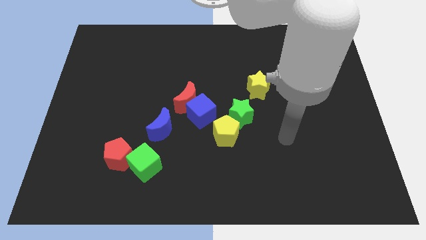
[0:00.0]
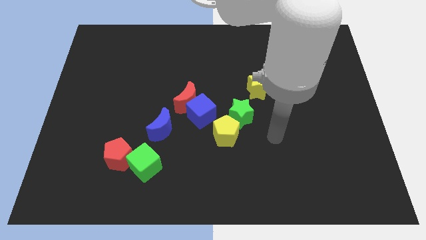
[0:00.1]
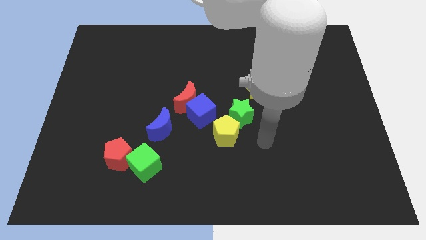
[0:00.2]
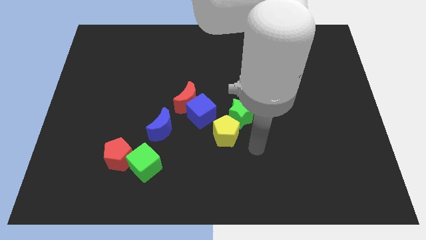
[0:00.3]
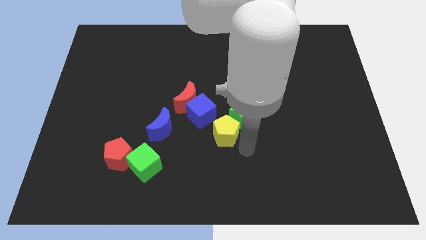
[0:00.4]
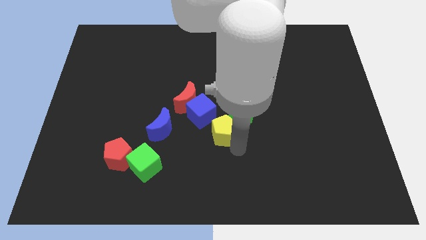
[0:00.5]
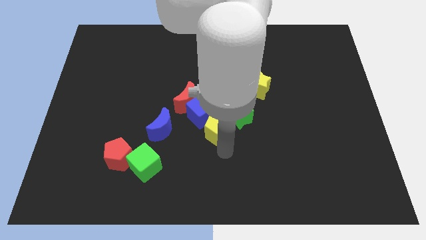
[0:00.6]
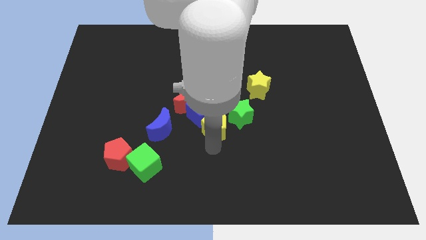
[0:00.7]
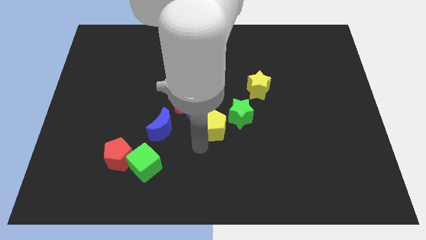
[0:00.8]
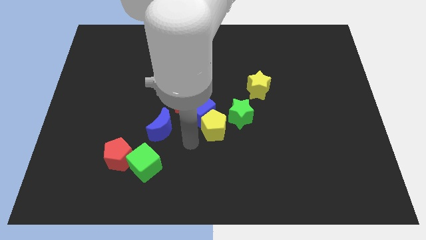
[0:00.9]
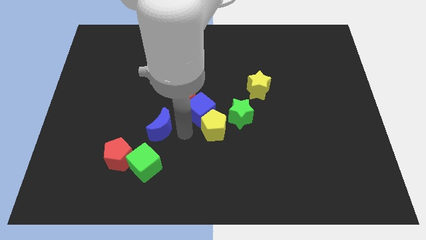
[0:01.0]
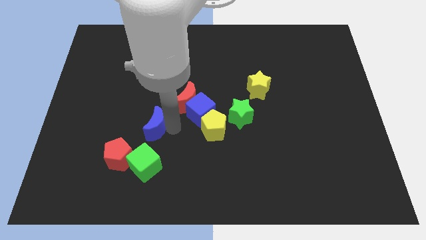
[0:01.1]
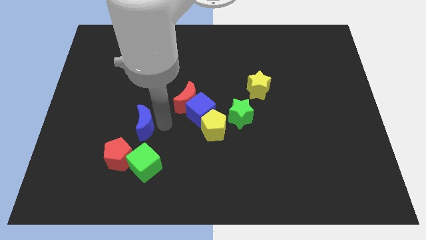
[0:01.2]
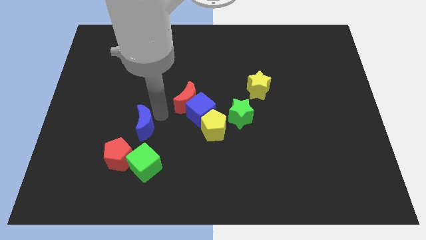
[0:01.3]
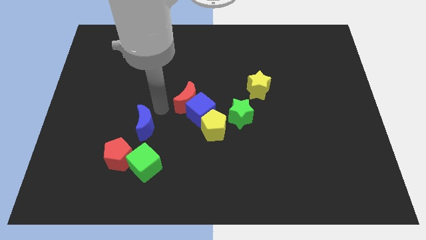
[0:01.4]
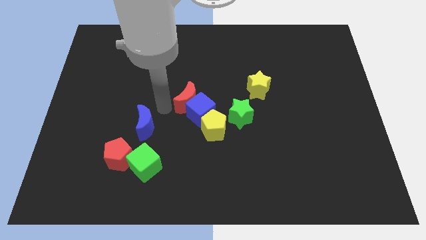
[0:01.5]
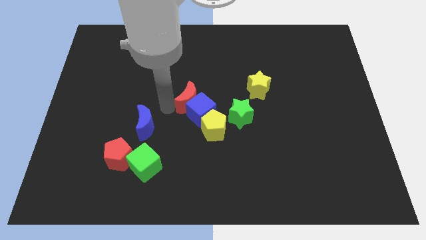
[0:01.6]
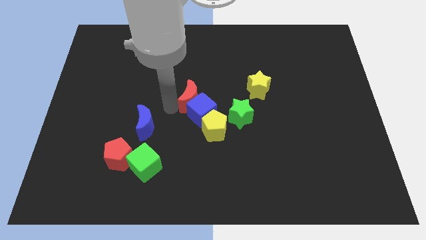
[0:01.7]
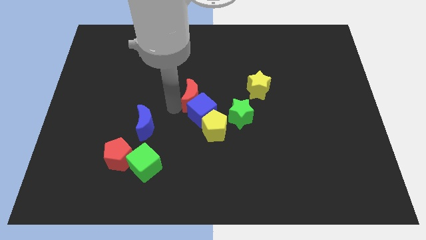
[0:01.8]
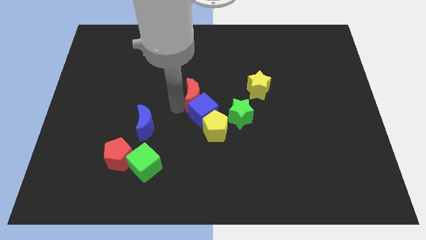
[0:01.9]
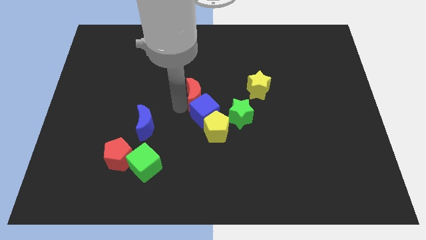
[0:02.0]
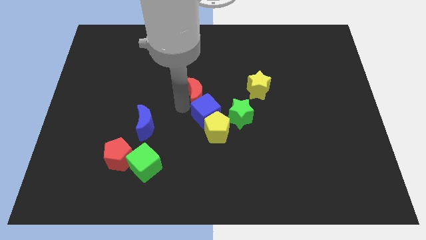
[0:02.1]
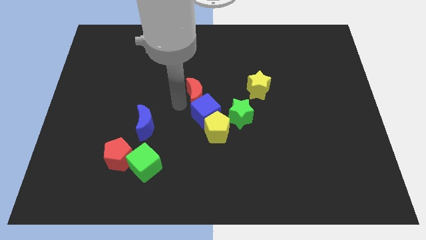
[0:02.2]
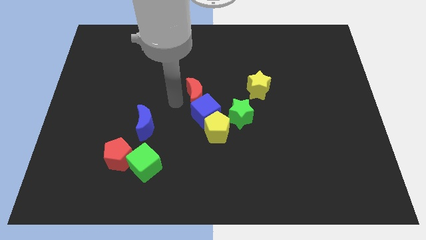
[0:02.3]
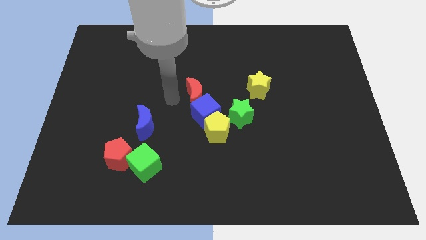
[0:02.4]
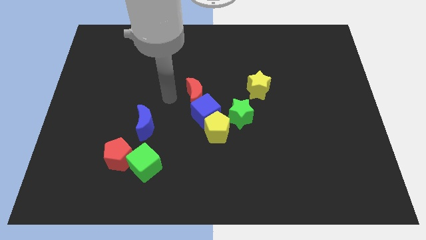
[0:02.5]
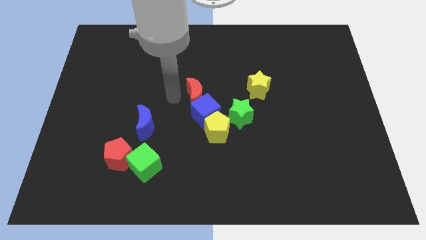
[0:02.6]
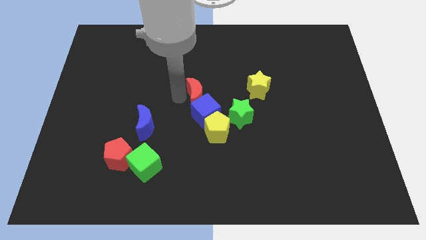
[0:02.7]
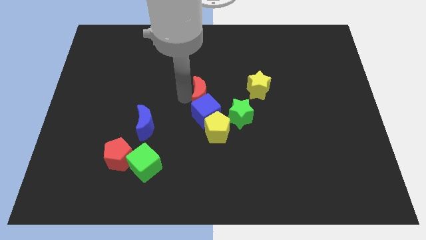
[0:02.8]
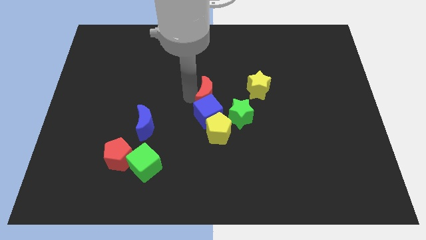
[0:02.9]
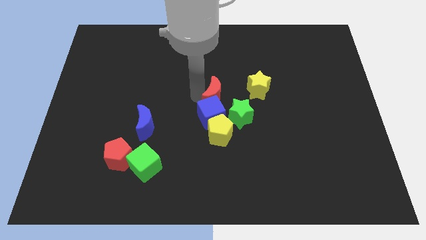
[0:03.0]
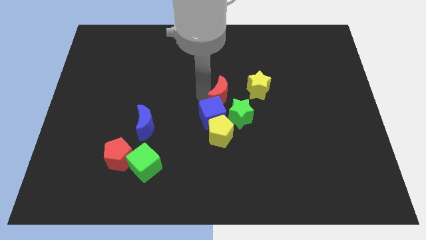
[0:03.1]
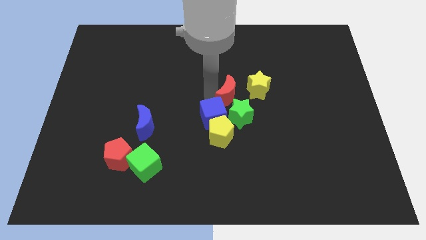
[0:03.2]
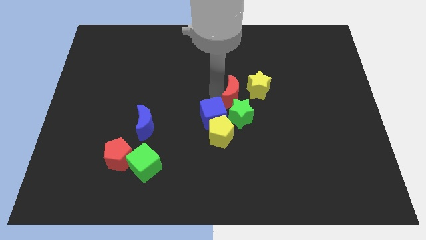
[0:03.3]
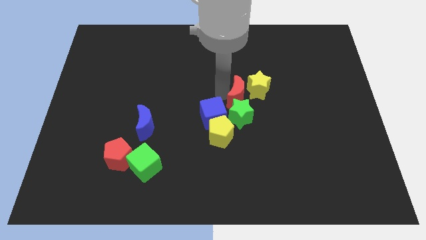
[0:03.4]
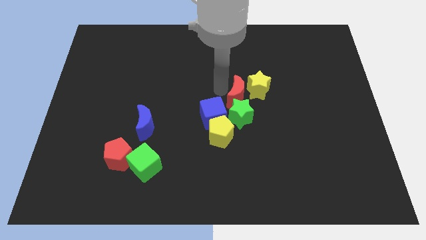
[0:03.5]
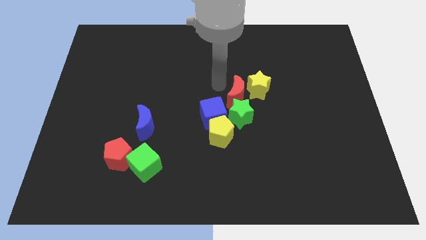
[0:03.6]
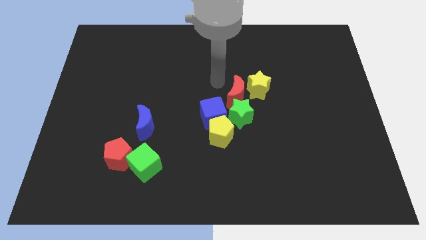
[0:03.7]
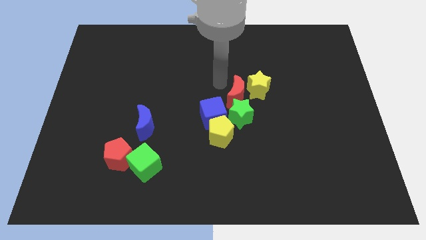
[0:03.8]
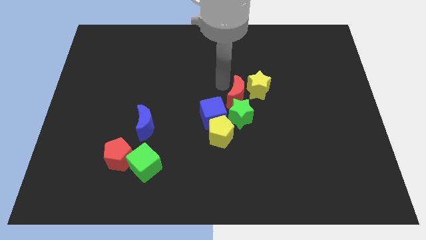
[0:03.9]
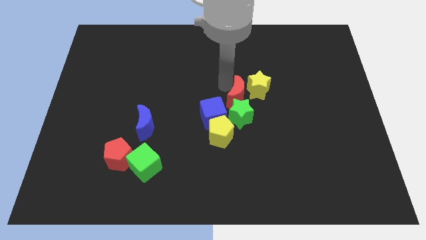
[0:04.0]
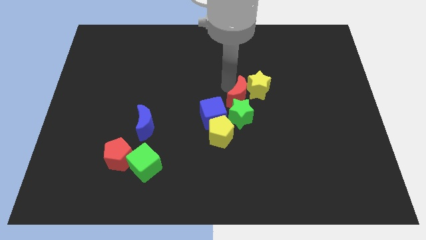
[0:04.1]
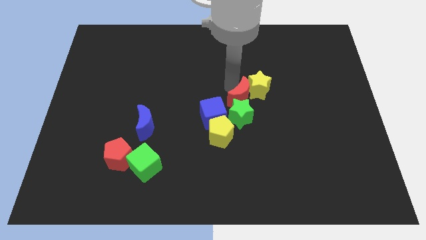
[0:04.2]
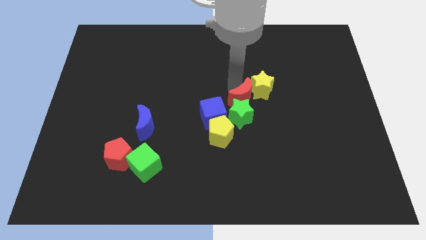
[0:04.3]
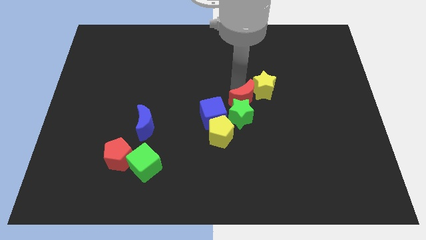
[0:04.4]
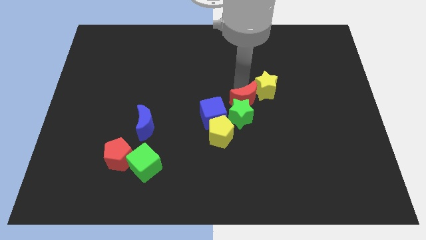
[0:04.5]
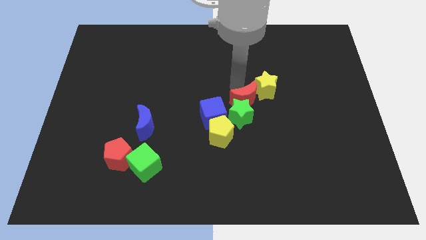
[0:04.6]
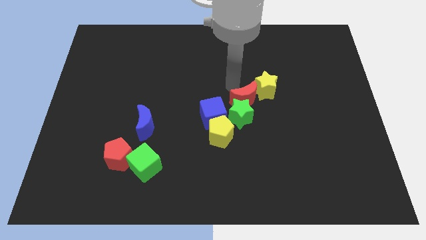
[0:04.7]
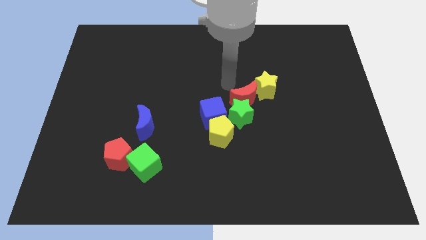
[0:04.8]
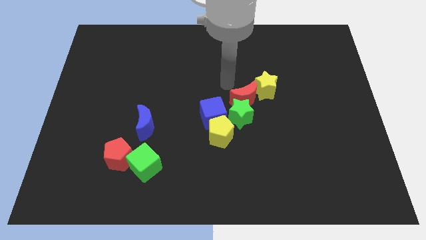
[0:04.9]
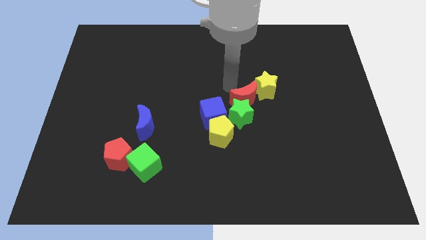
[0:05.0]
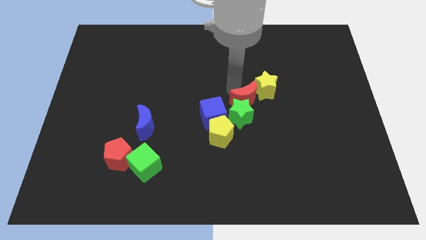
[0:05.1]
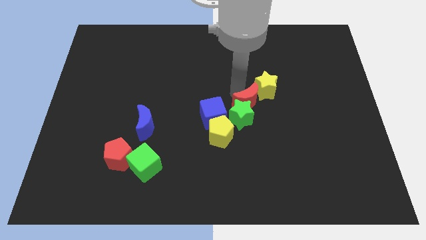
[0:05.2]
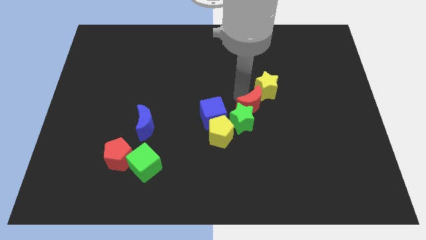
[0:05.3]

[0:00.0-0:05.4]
slightly move the red moon diagonally down and to the right

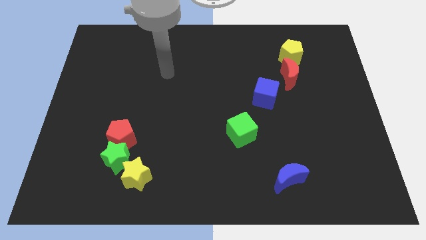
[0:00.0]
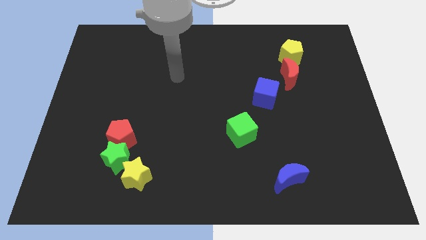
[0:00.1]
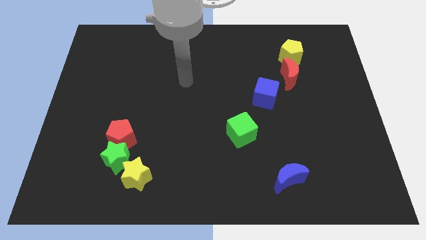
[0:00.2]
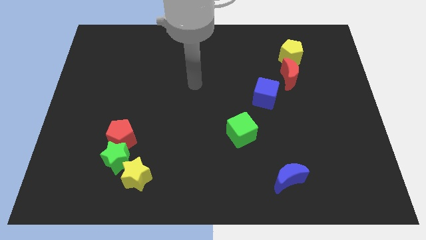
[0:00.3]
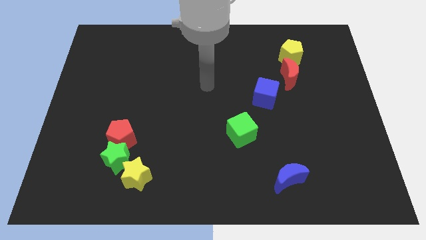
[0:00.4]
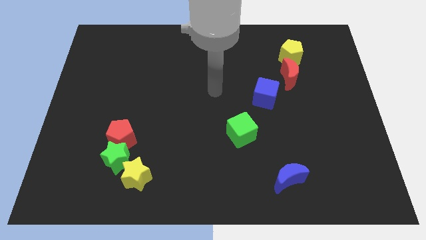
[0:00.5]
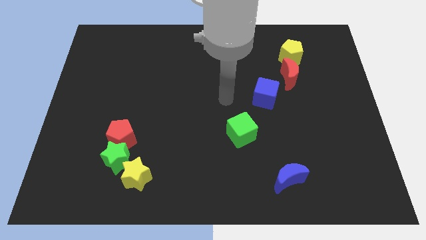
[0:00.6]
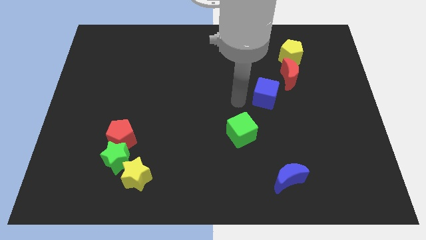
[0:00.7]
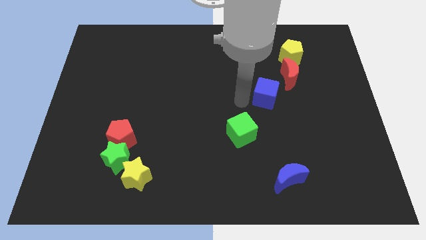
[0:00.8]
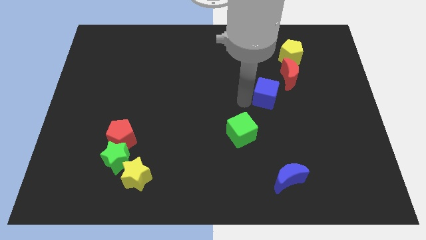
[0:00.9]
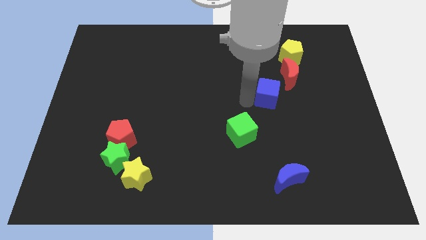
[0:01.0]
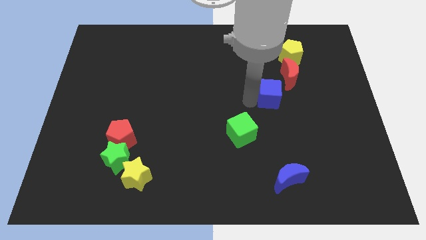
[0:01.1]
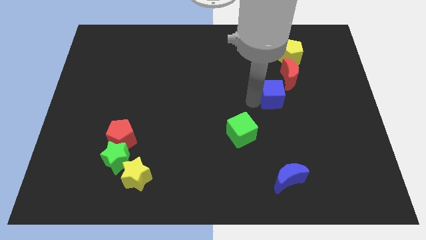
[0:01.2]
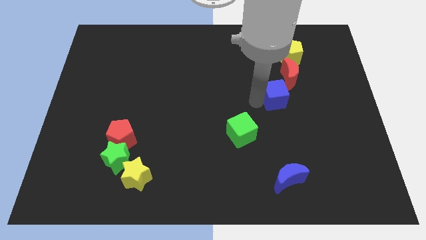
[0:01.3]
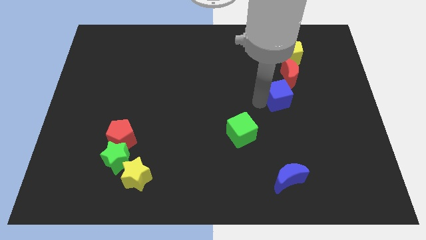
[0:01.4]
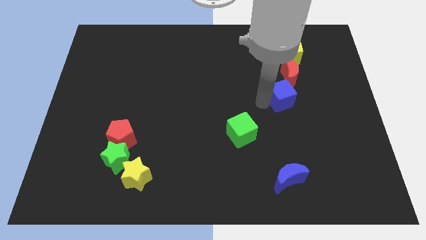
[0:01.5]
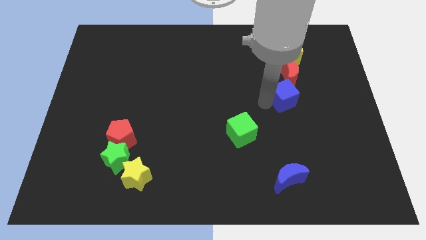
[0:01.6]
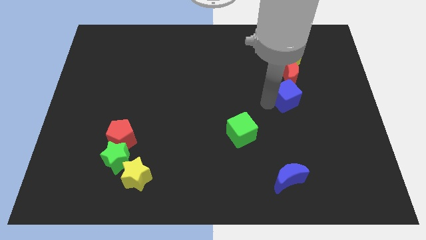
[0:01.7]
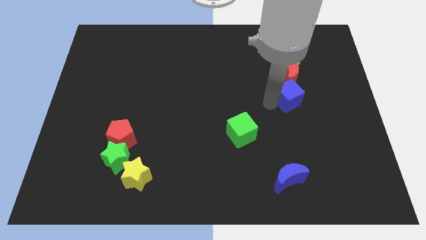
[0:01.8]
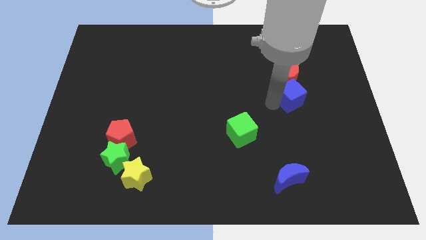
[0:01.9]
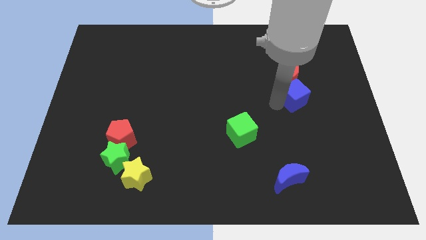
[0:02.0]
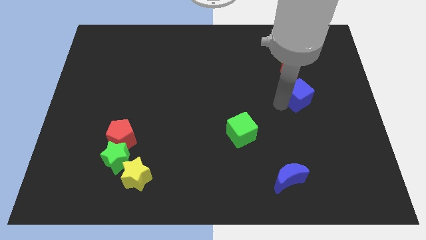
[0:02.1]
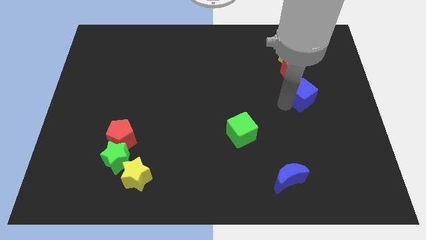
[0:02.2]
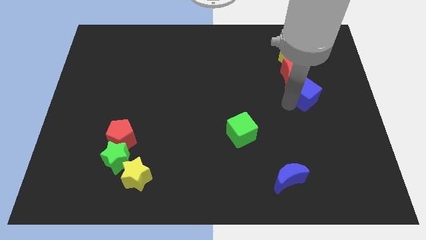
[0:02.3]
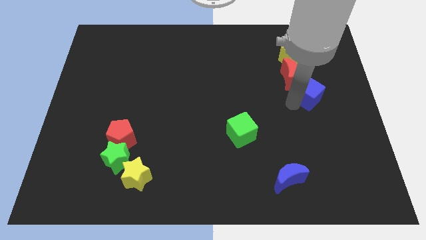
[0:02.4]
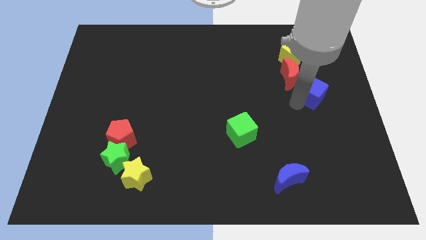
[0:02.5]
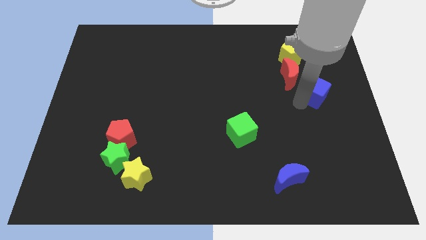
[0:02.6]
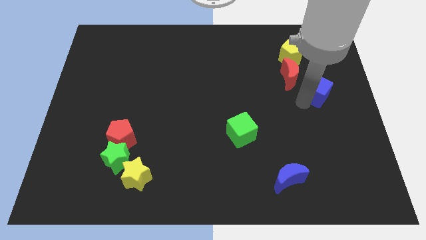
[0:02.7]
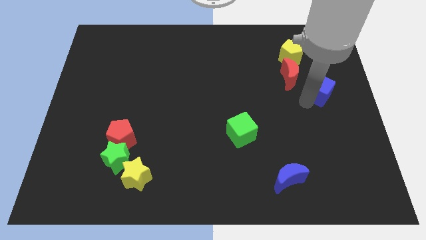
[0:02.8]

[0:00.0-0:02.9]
move the blue cube slightly diagonally upwards and to the right

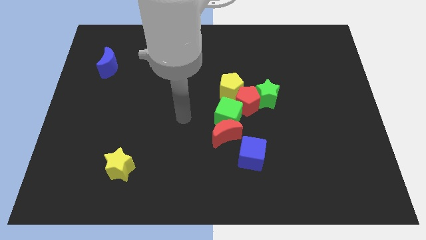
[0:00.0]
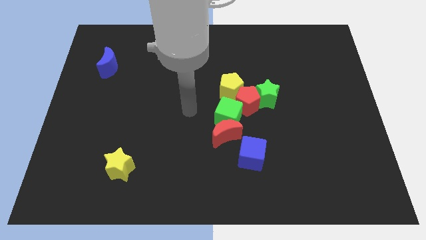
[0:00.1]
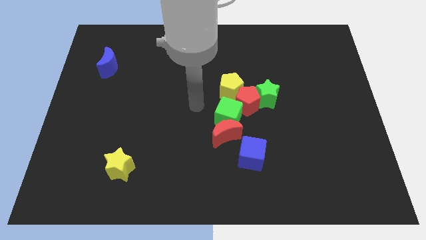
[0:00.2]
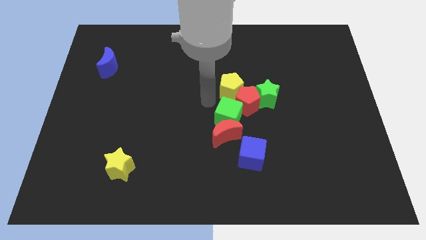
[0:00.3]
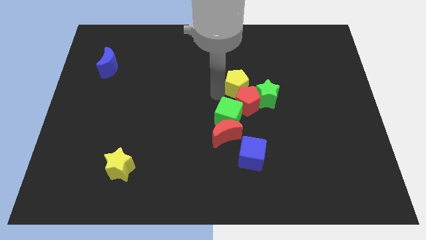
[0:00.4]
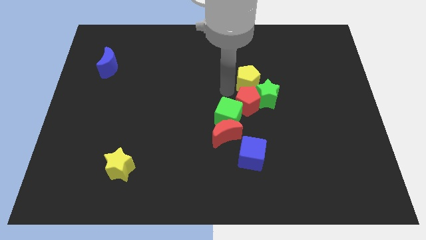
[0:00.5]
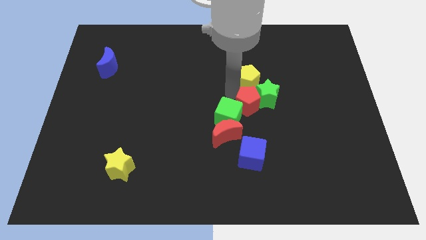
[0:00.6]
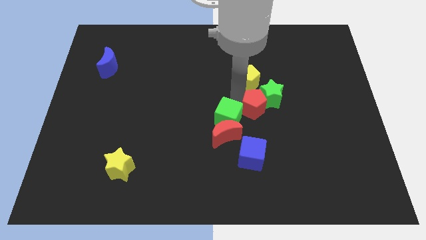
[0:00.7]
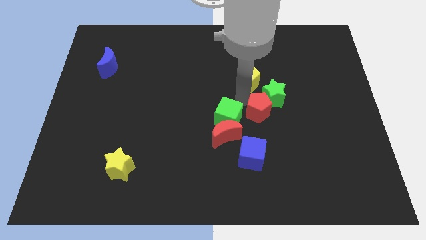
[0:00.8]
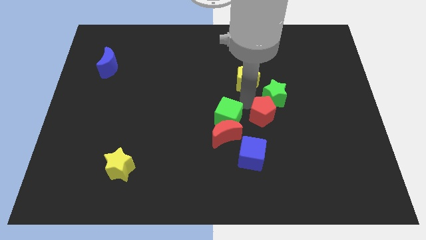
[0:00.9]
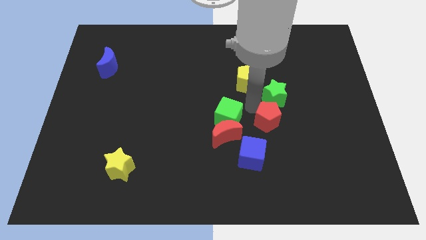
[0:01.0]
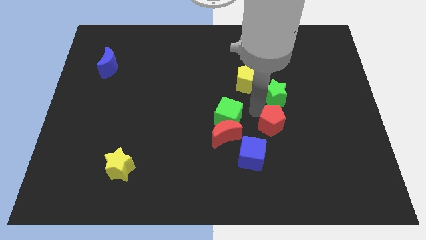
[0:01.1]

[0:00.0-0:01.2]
slightly move the red pentagon down and then right
